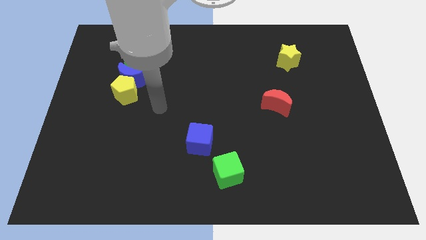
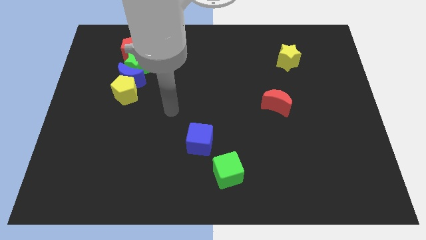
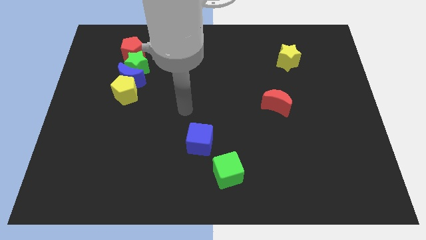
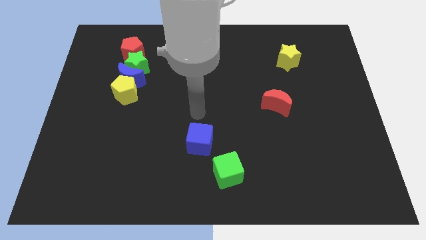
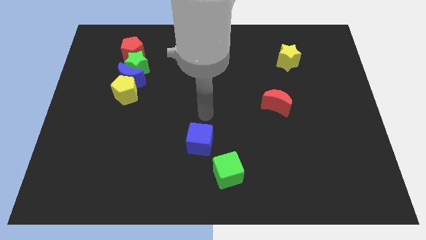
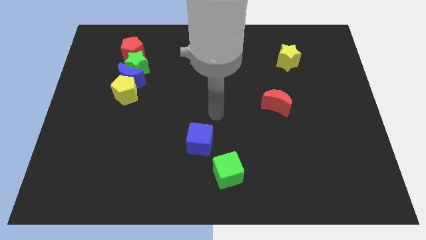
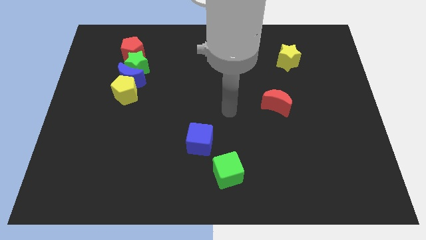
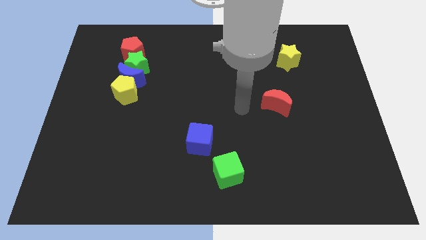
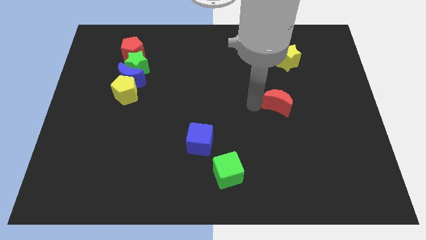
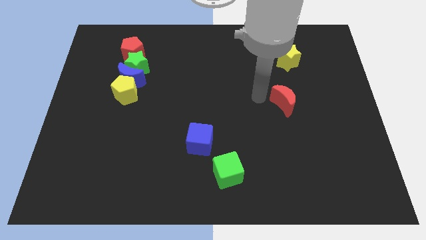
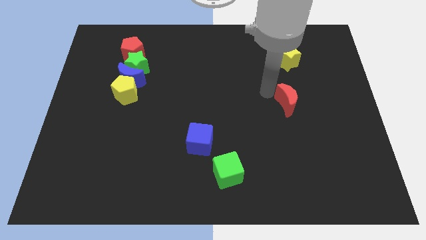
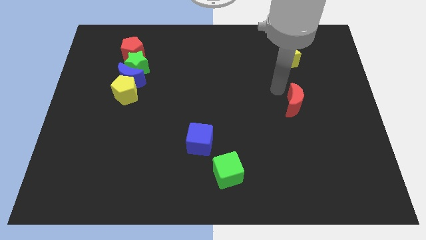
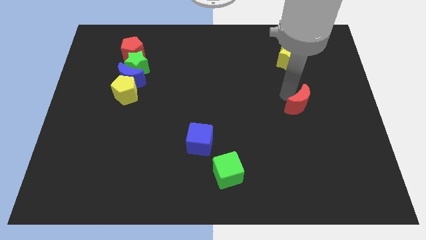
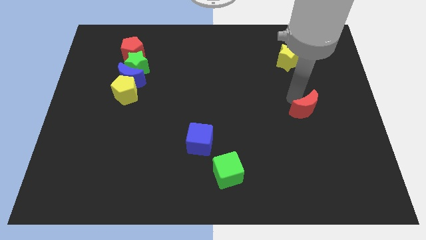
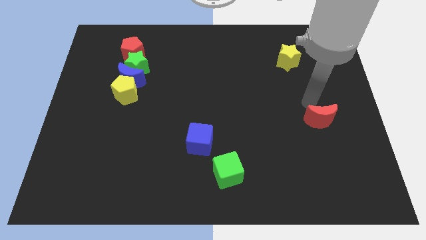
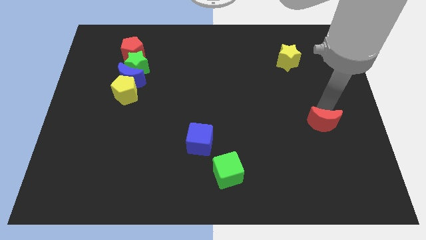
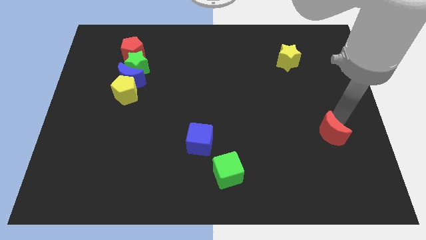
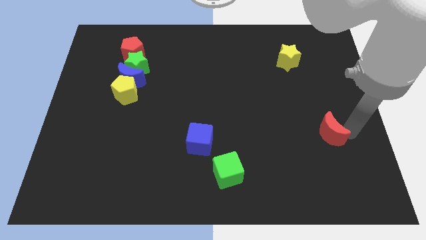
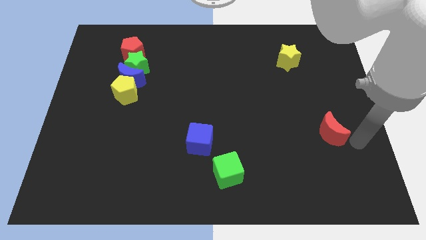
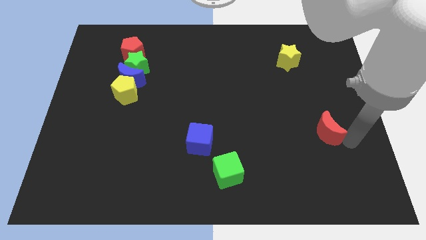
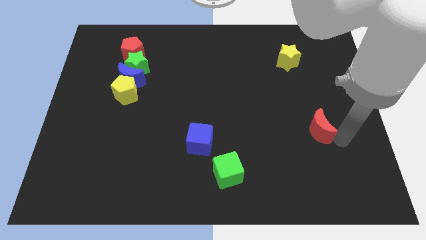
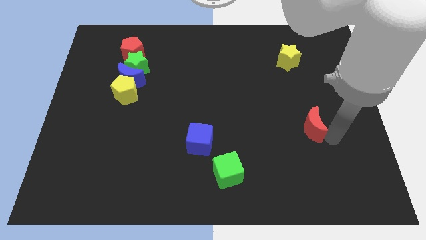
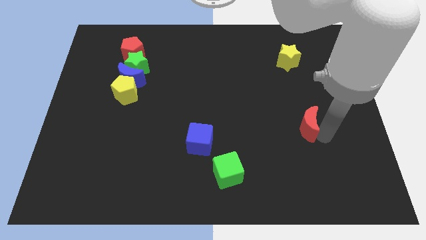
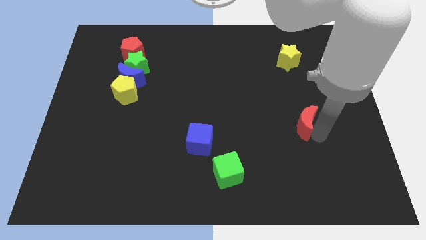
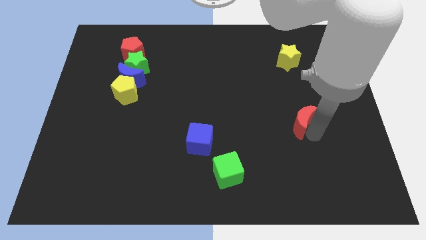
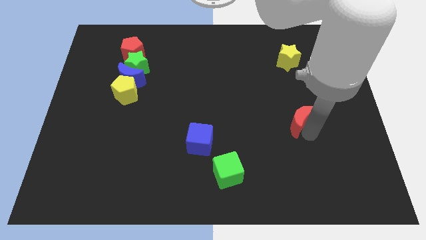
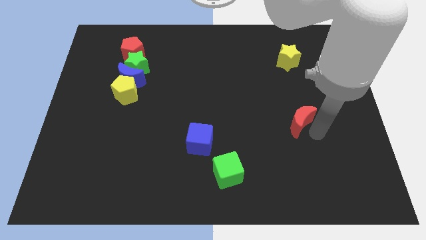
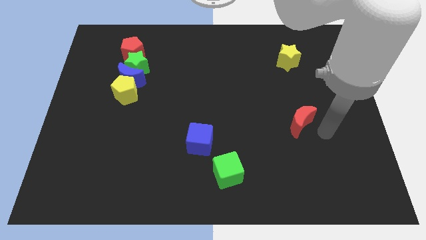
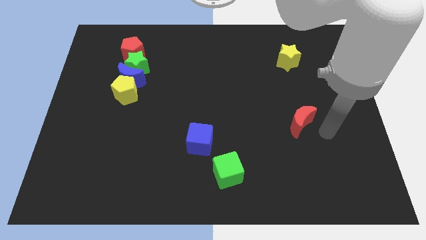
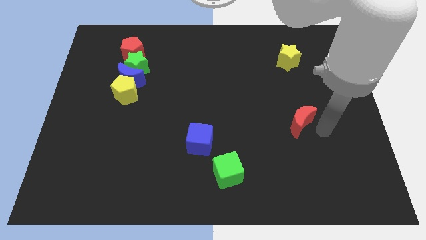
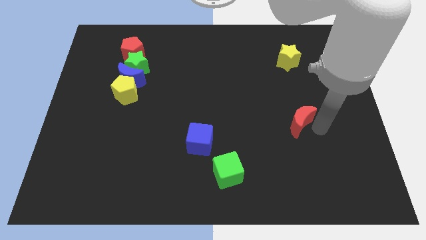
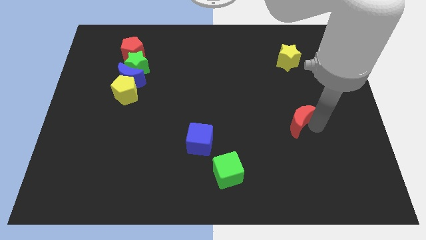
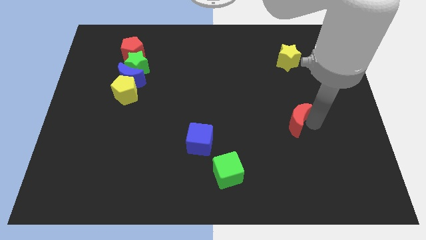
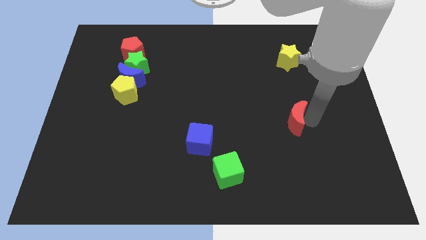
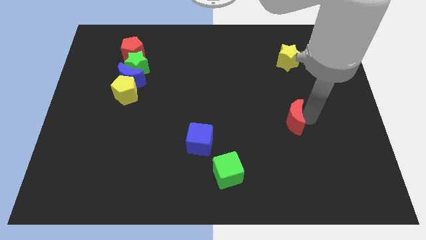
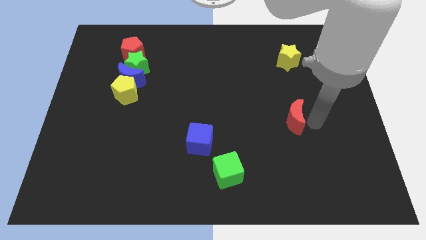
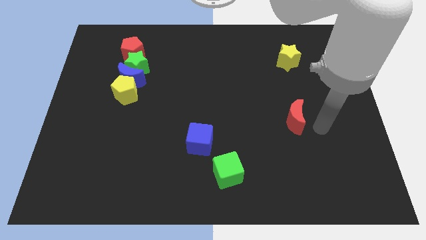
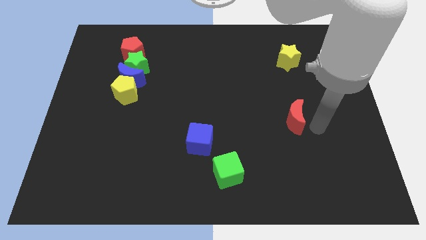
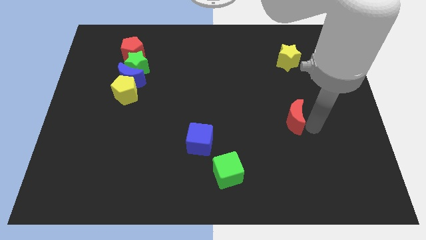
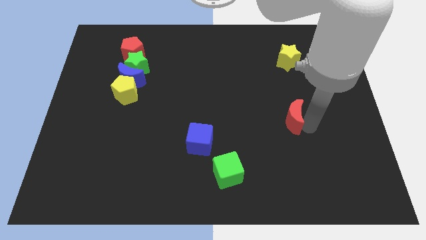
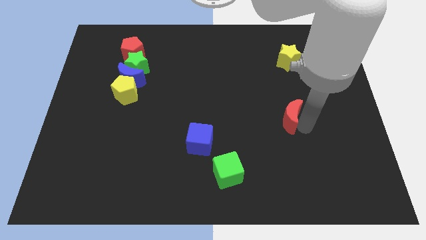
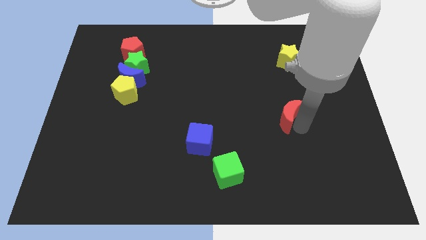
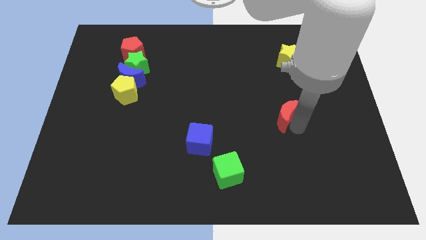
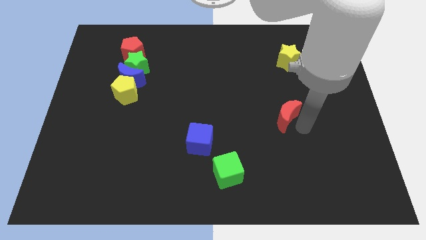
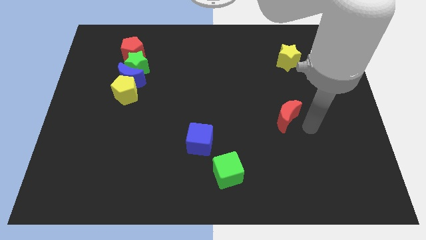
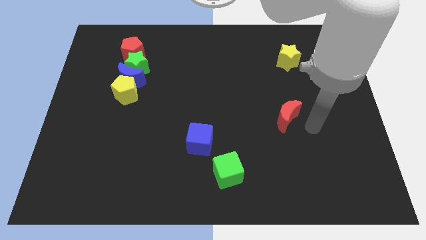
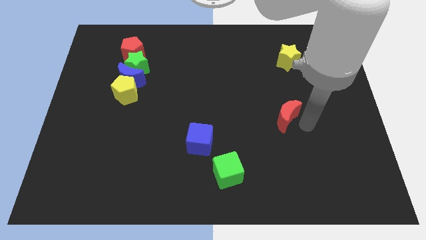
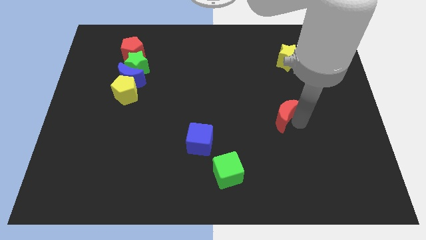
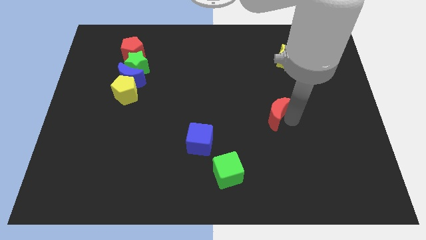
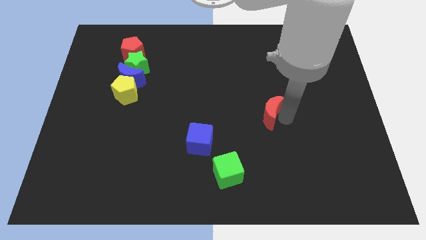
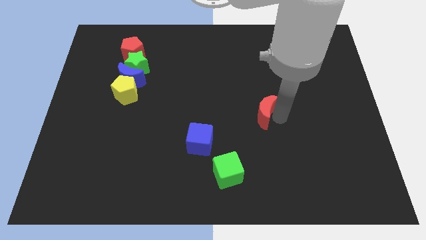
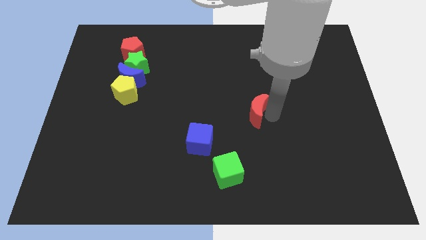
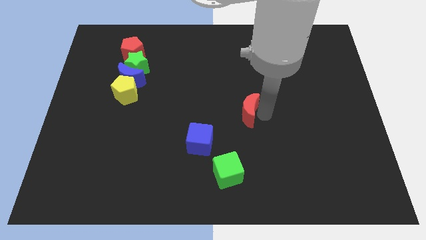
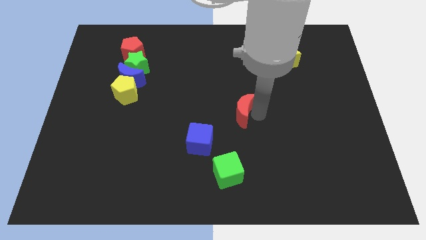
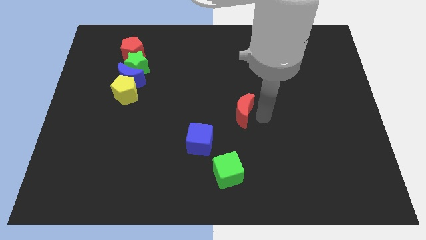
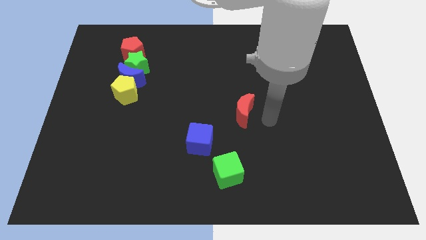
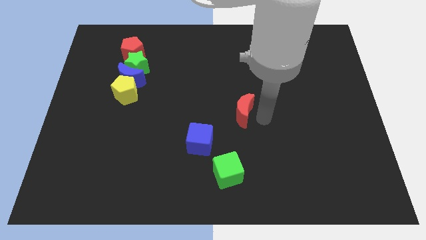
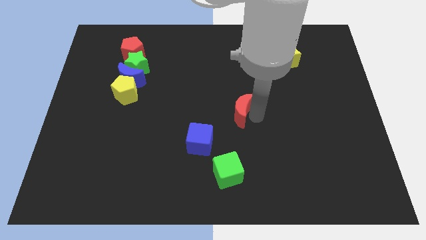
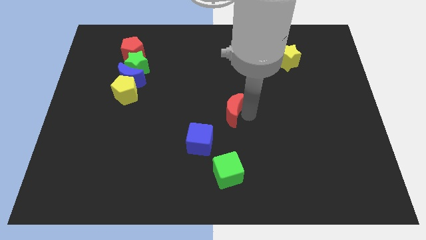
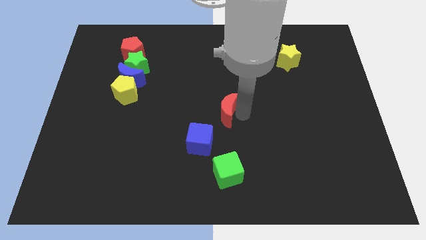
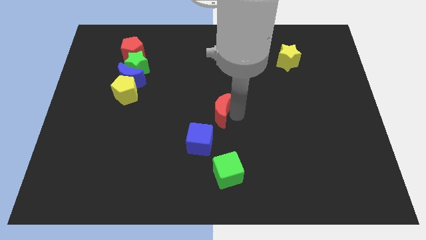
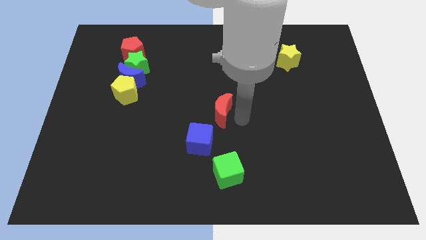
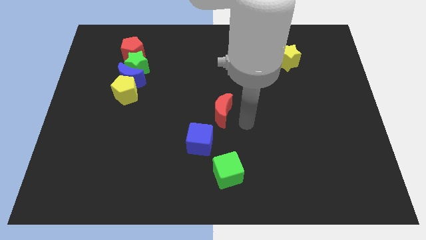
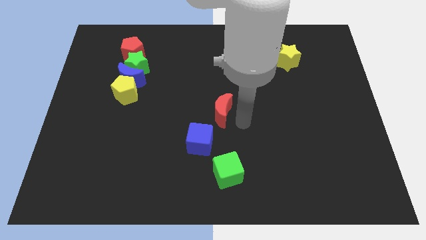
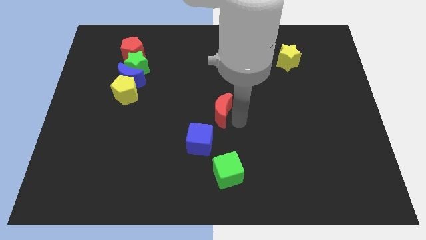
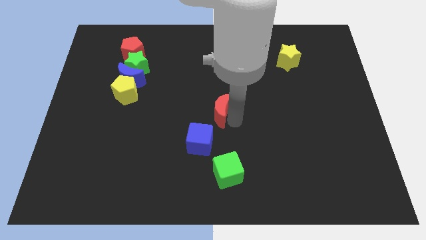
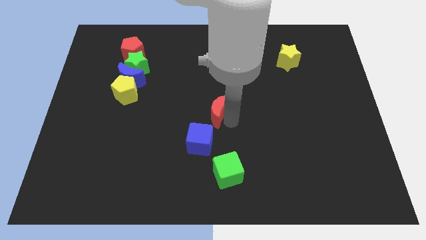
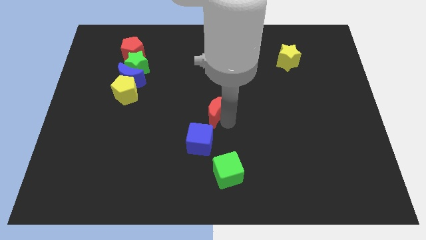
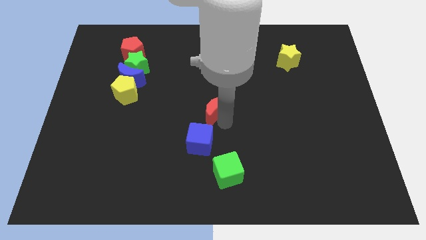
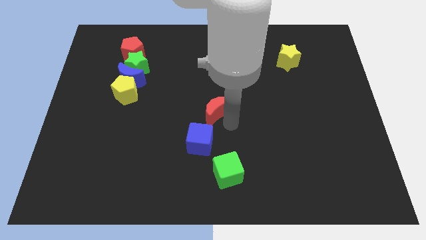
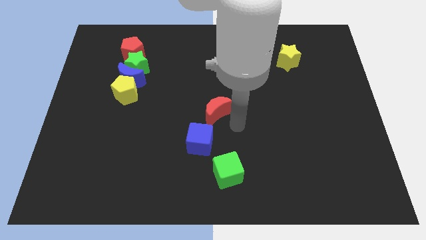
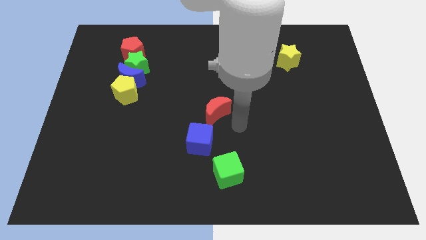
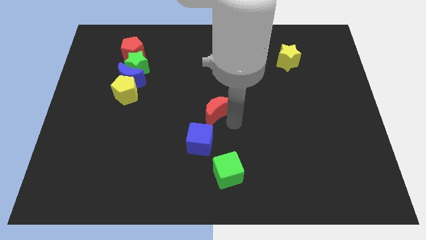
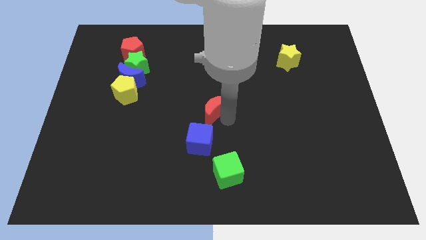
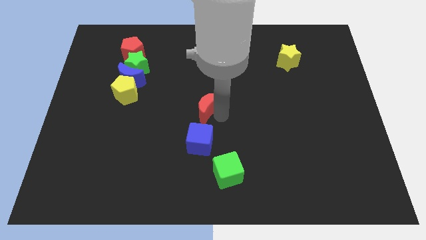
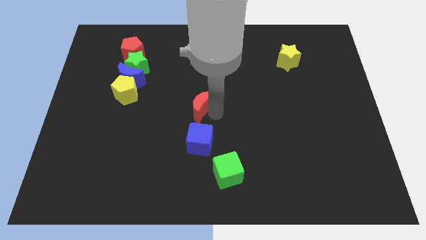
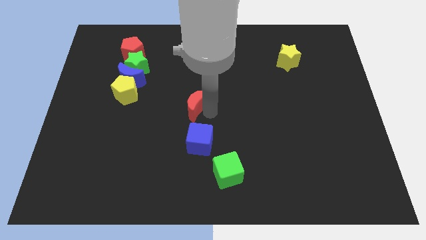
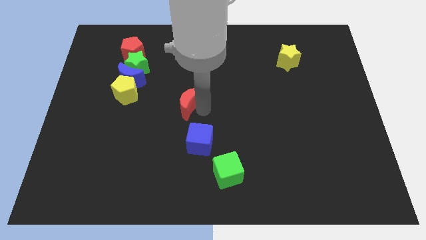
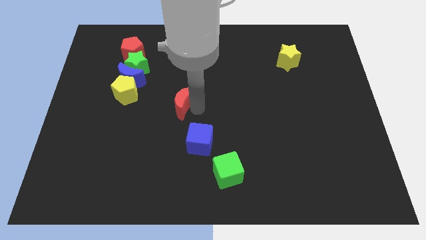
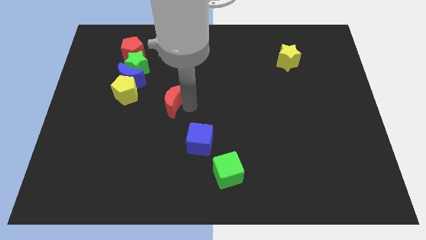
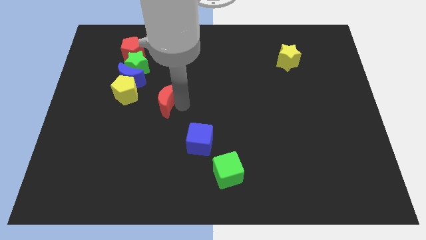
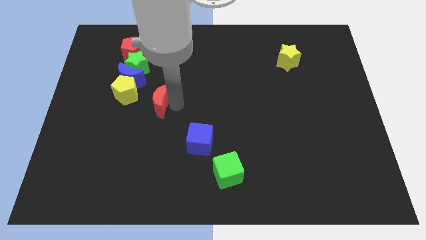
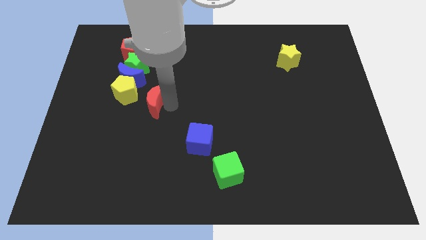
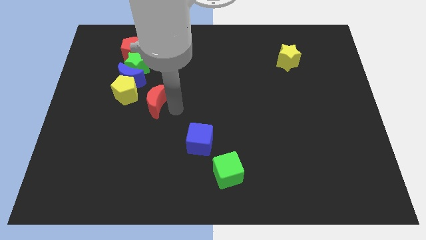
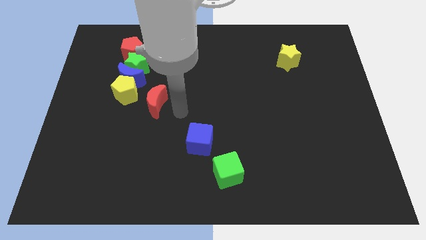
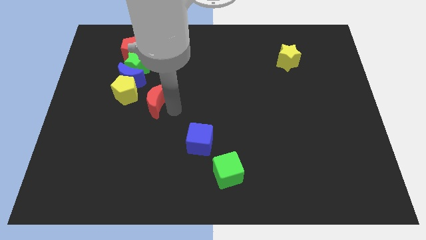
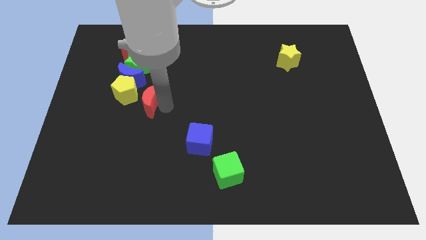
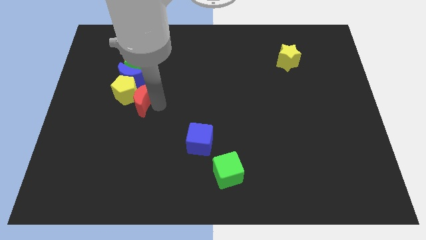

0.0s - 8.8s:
slide the red moon to the yellow pentagon
